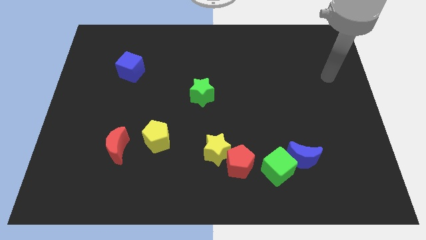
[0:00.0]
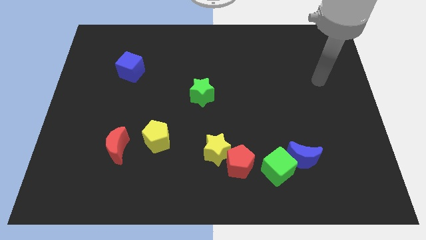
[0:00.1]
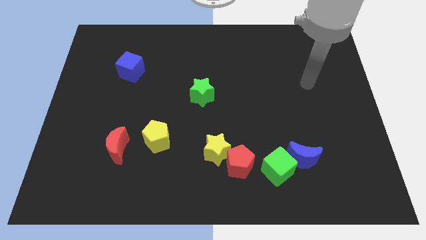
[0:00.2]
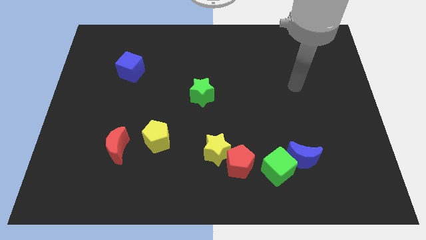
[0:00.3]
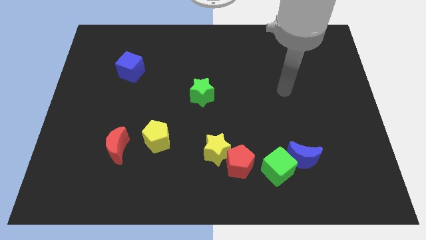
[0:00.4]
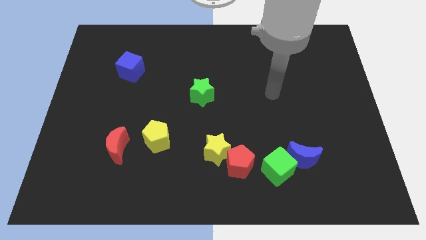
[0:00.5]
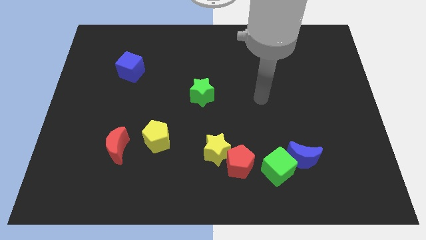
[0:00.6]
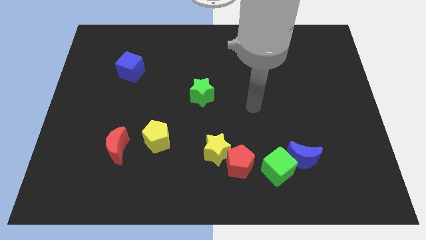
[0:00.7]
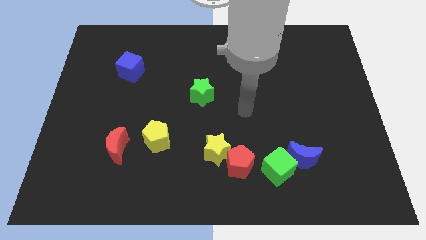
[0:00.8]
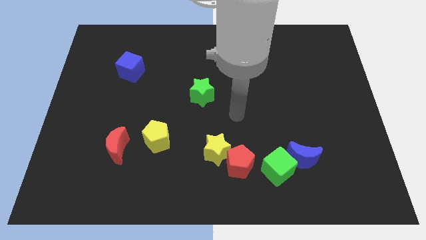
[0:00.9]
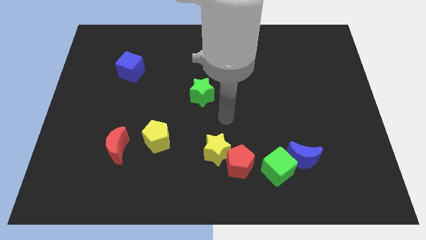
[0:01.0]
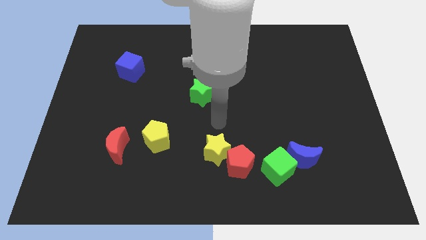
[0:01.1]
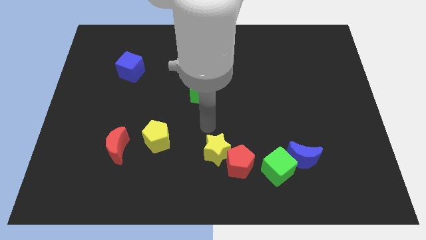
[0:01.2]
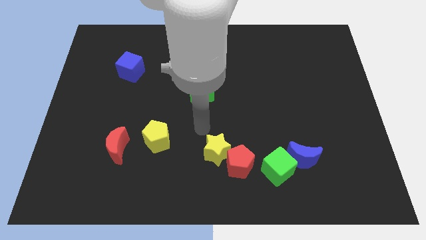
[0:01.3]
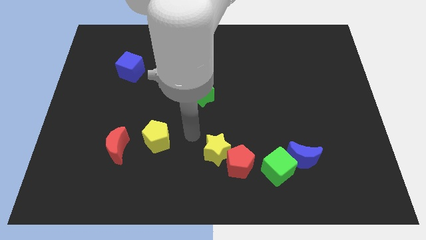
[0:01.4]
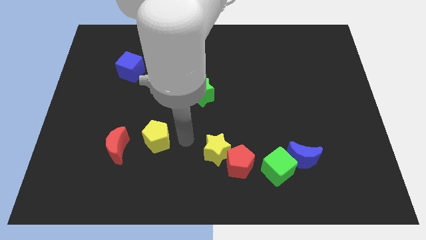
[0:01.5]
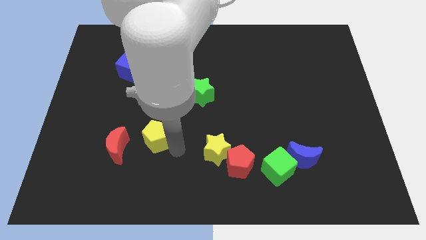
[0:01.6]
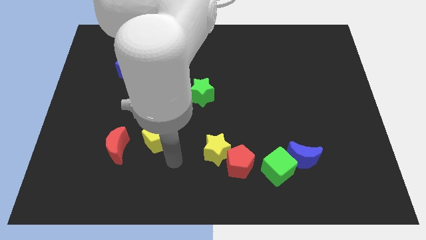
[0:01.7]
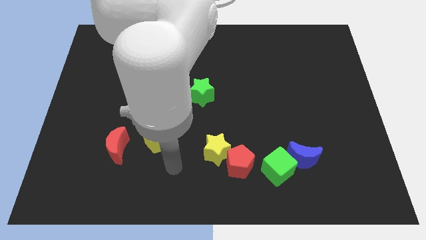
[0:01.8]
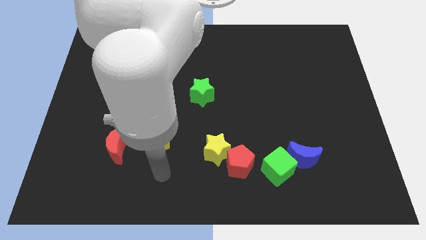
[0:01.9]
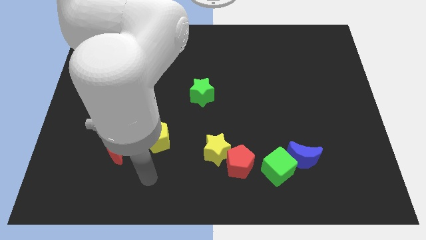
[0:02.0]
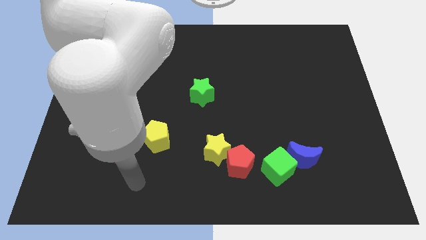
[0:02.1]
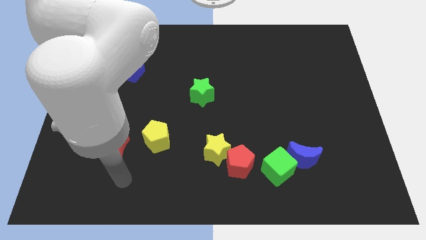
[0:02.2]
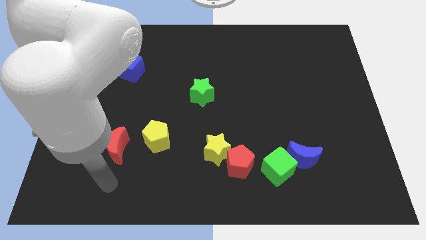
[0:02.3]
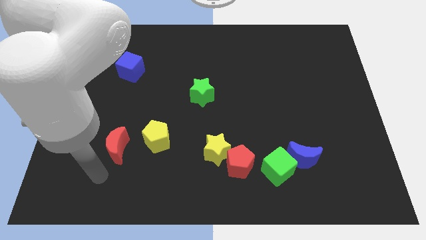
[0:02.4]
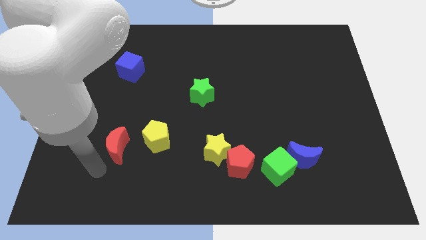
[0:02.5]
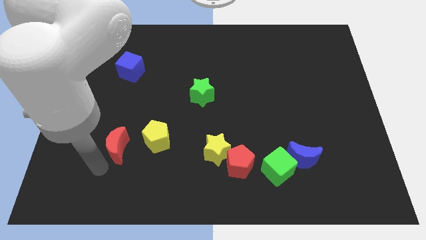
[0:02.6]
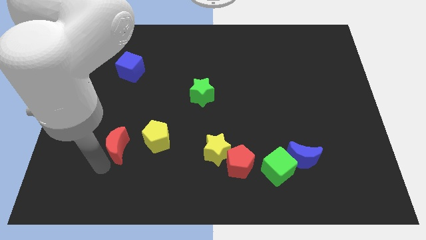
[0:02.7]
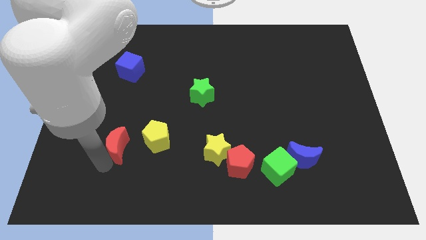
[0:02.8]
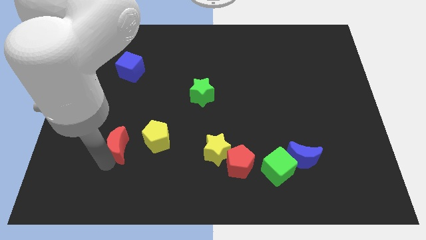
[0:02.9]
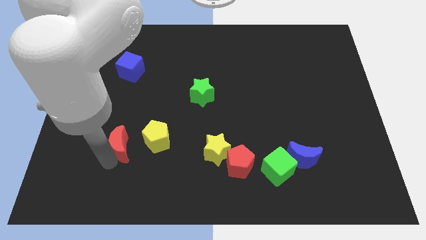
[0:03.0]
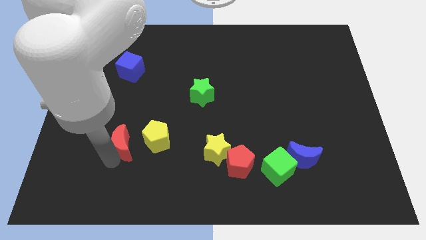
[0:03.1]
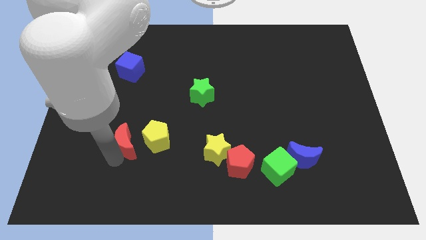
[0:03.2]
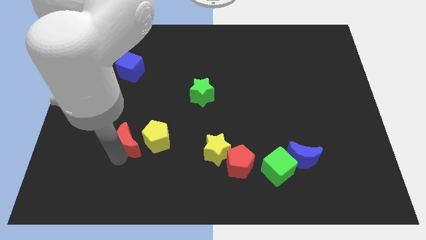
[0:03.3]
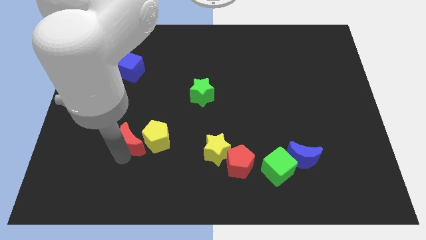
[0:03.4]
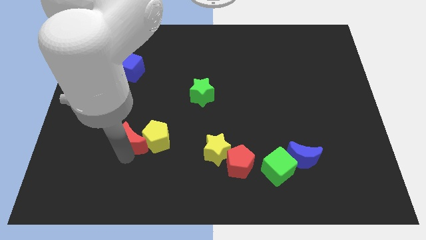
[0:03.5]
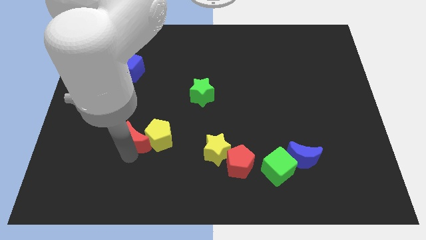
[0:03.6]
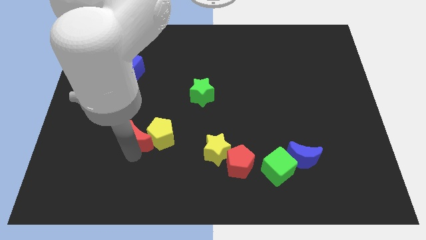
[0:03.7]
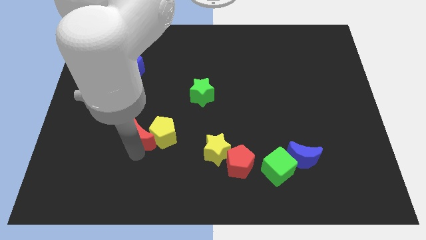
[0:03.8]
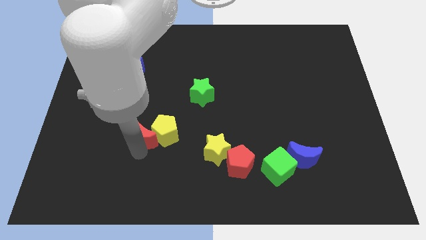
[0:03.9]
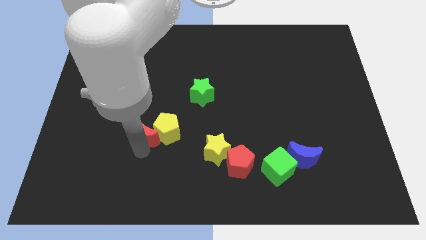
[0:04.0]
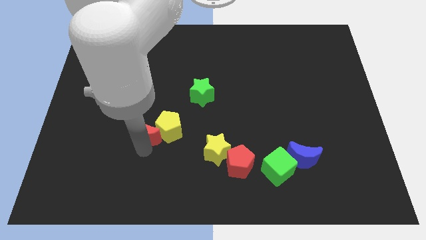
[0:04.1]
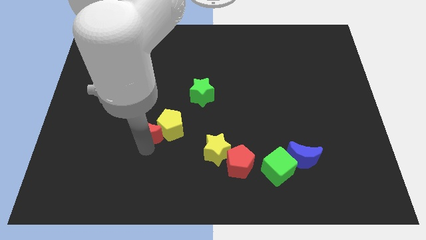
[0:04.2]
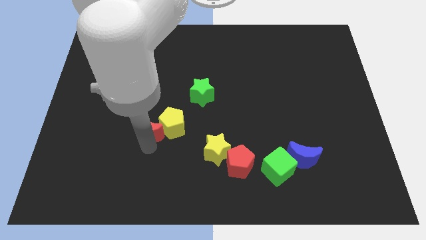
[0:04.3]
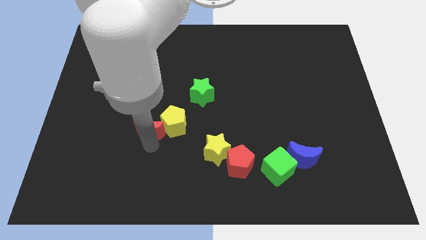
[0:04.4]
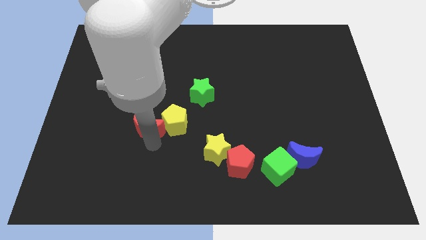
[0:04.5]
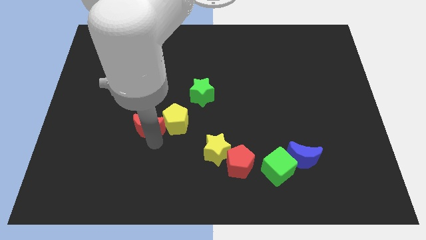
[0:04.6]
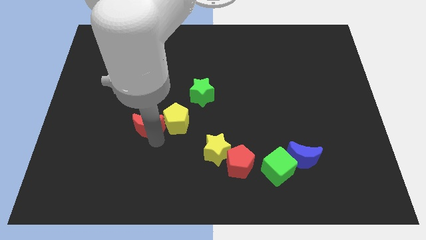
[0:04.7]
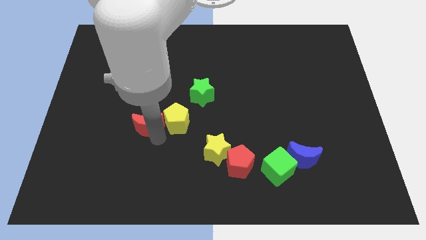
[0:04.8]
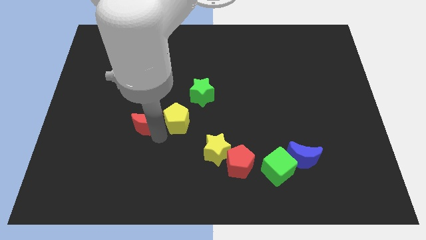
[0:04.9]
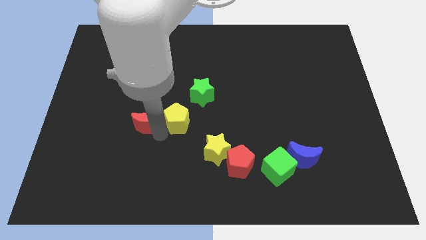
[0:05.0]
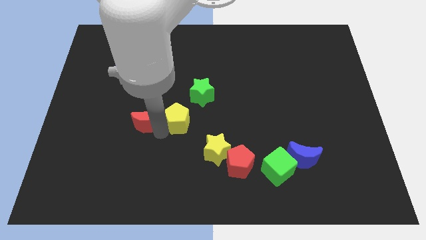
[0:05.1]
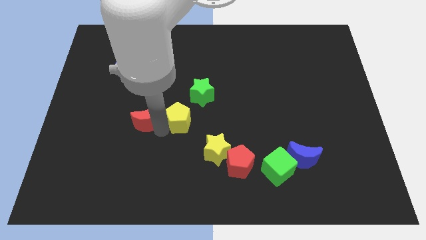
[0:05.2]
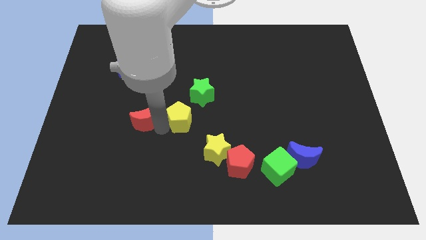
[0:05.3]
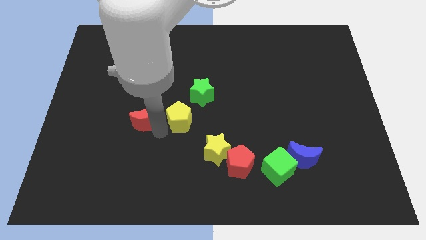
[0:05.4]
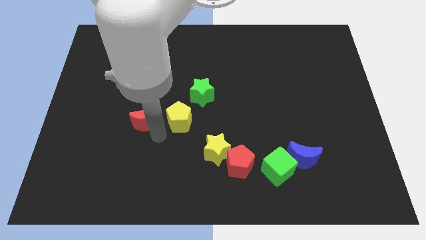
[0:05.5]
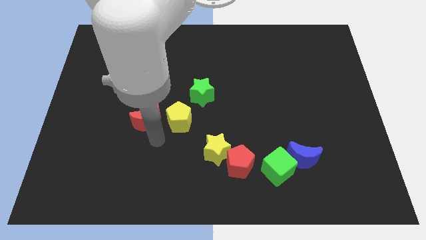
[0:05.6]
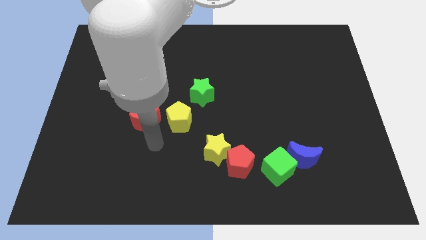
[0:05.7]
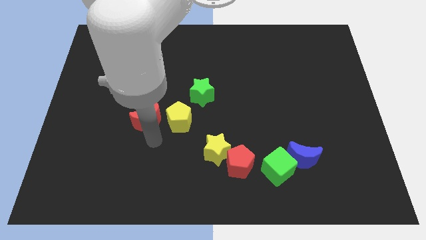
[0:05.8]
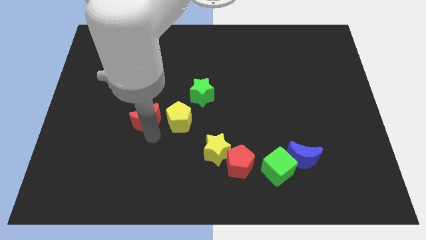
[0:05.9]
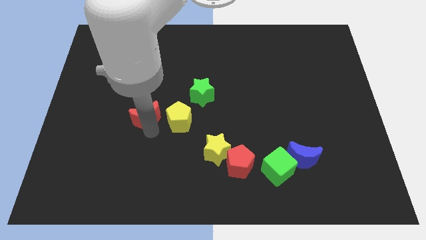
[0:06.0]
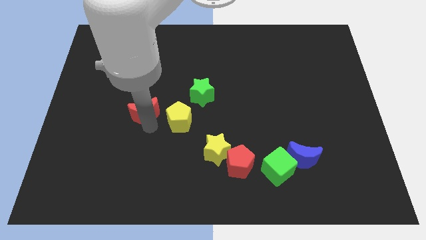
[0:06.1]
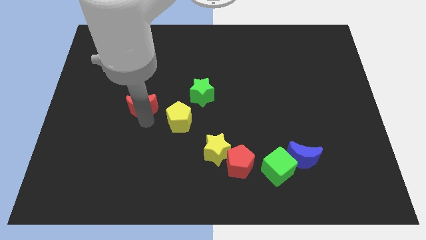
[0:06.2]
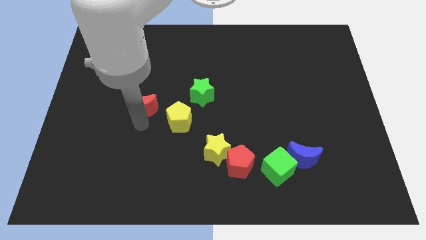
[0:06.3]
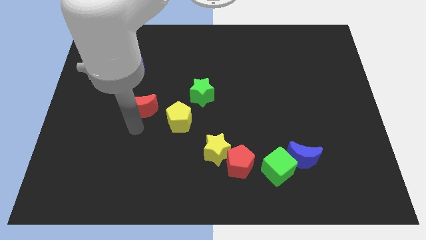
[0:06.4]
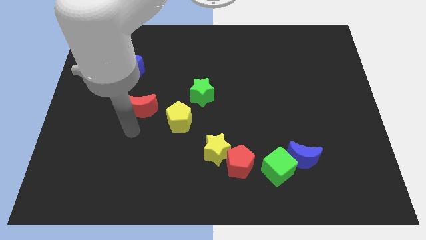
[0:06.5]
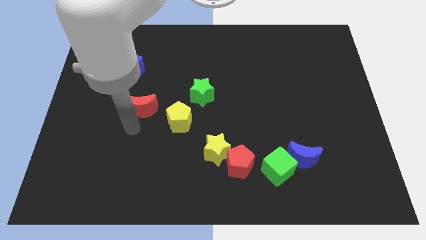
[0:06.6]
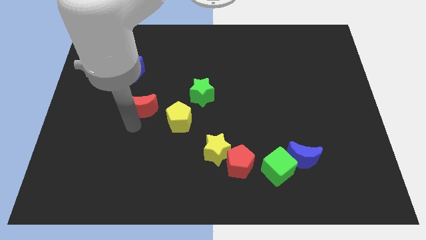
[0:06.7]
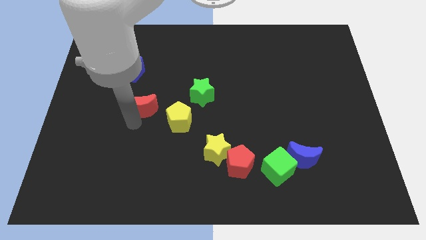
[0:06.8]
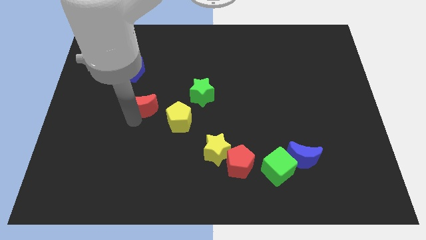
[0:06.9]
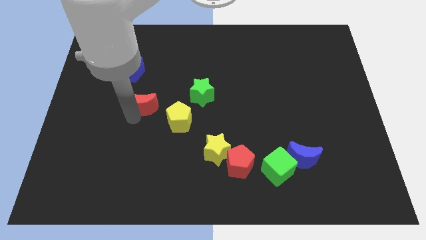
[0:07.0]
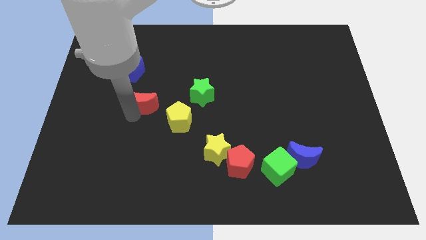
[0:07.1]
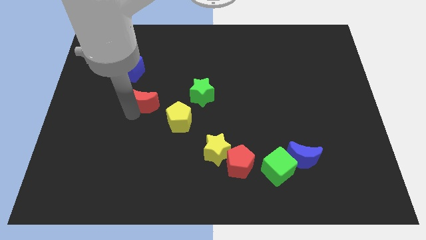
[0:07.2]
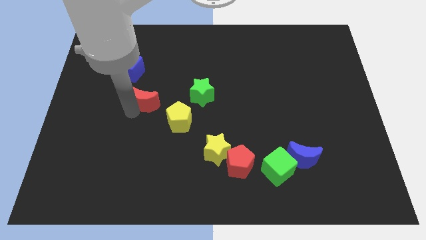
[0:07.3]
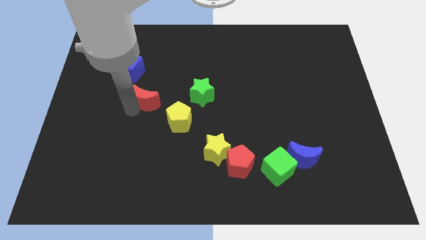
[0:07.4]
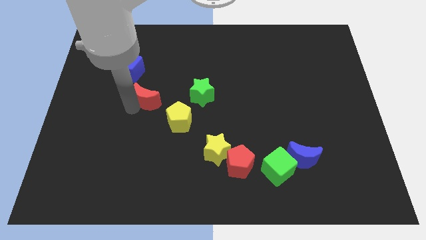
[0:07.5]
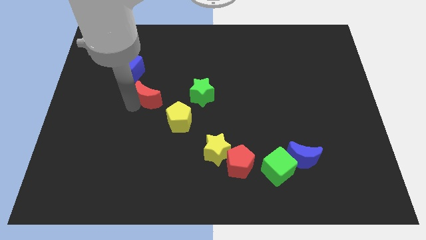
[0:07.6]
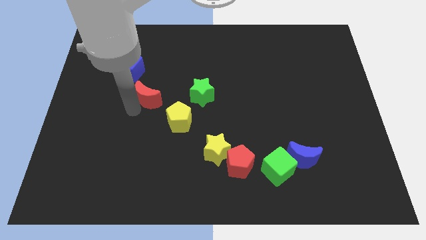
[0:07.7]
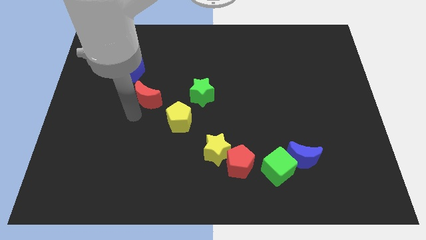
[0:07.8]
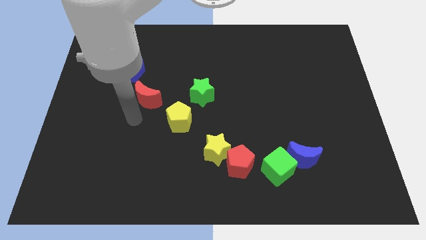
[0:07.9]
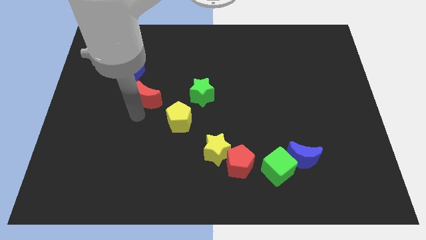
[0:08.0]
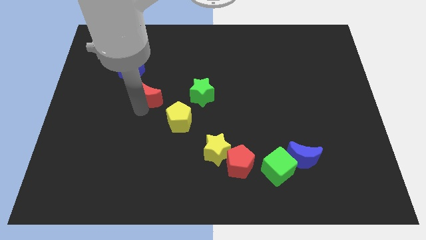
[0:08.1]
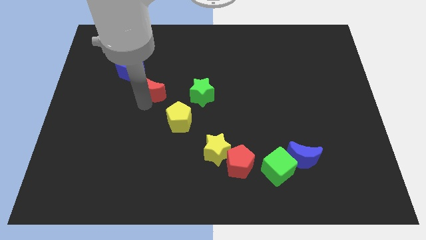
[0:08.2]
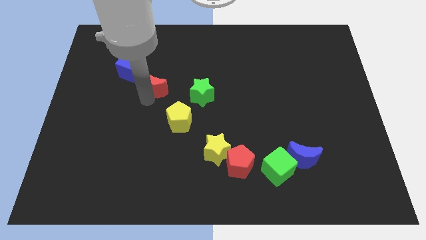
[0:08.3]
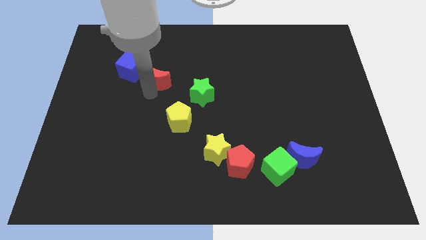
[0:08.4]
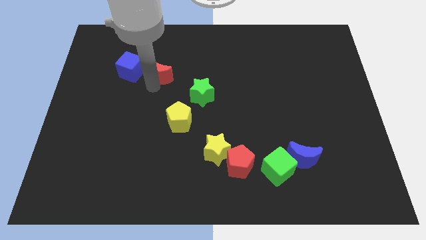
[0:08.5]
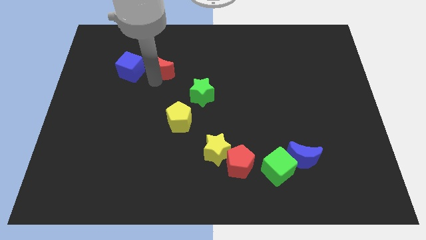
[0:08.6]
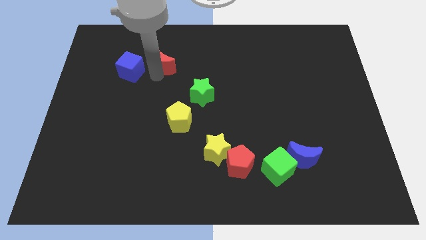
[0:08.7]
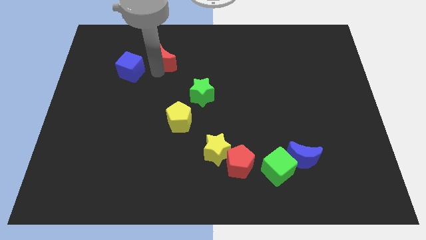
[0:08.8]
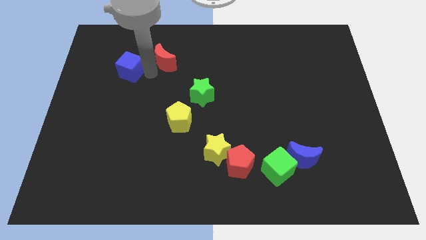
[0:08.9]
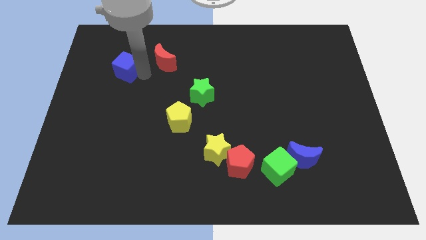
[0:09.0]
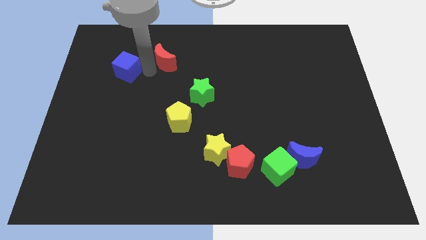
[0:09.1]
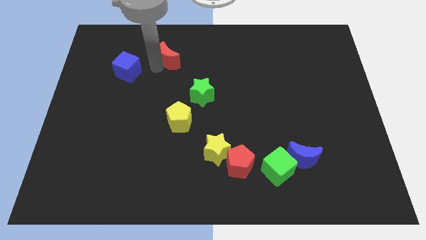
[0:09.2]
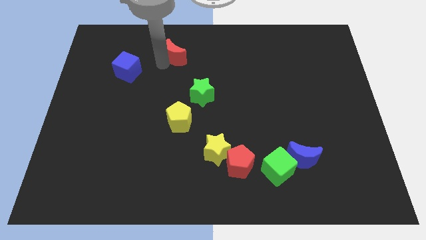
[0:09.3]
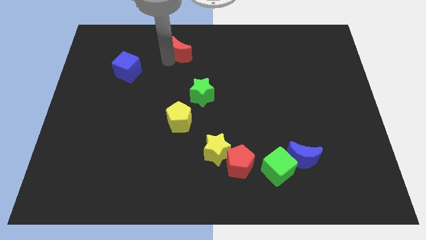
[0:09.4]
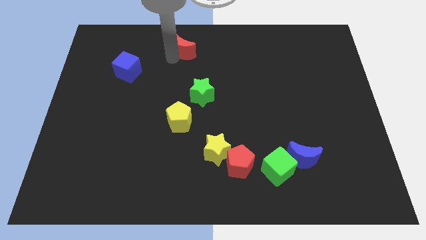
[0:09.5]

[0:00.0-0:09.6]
move the red moon to the towards your base
